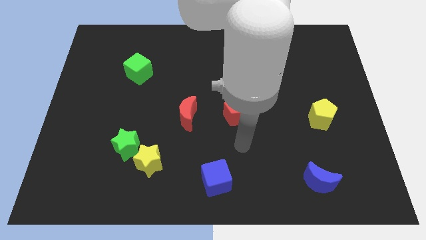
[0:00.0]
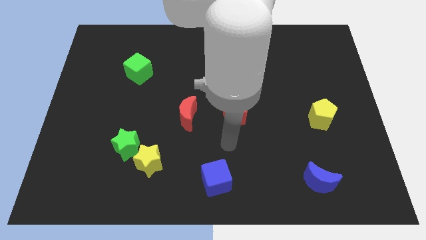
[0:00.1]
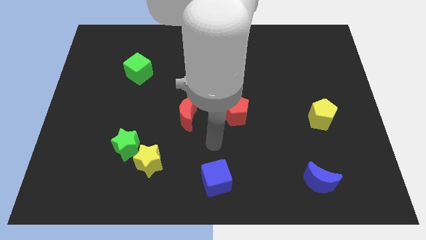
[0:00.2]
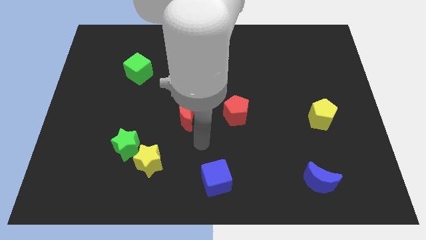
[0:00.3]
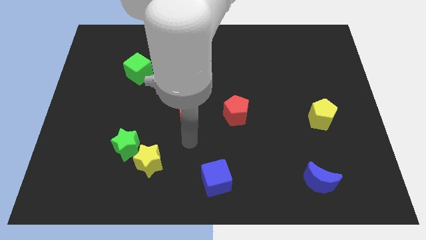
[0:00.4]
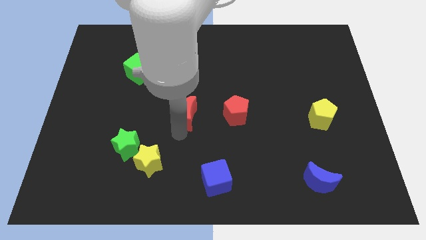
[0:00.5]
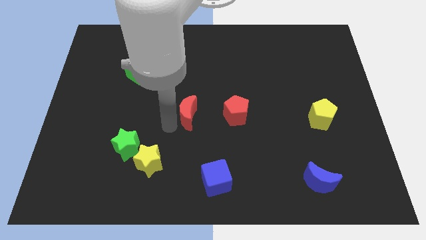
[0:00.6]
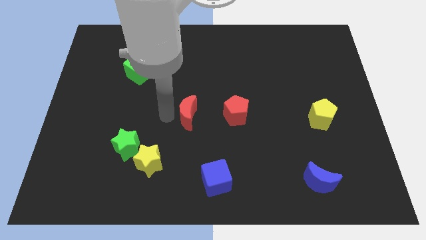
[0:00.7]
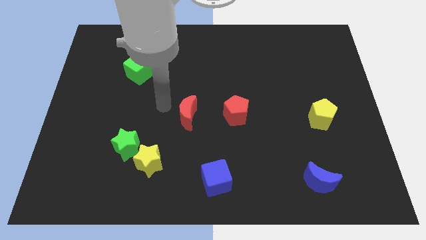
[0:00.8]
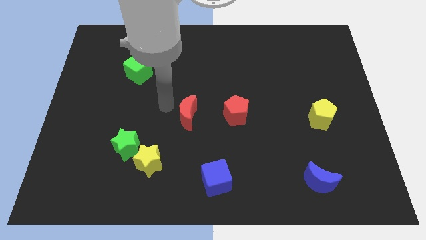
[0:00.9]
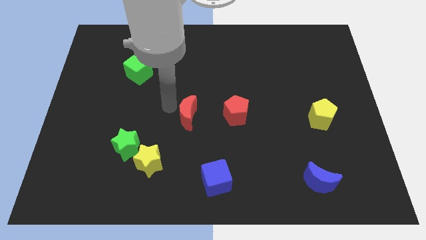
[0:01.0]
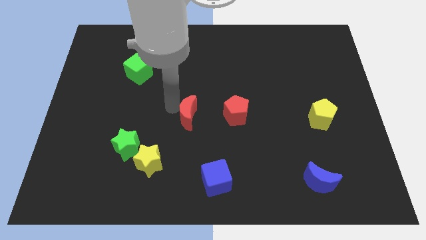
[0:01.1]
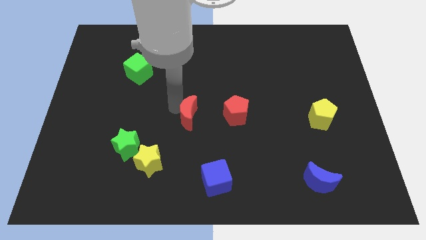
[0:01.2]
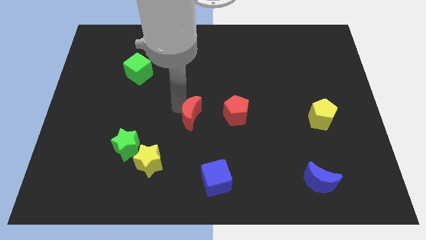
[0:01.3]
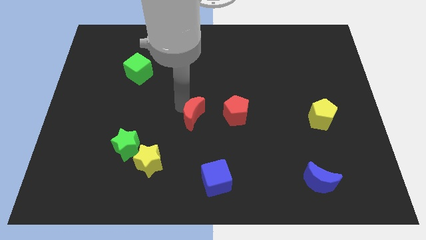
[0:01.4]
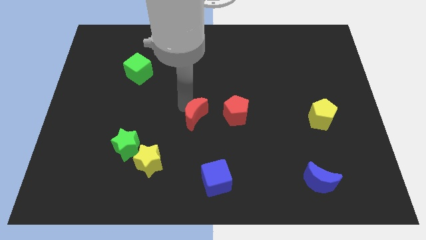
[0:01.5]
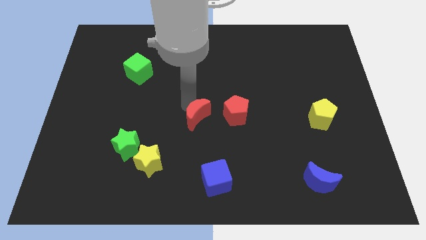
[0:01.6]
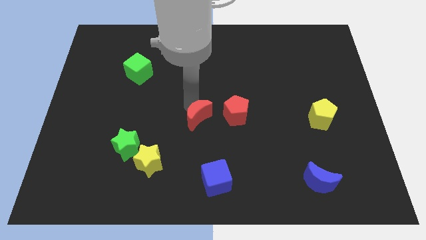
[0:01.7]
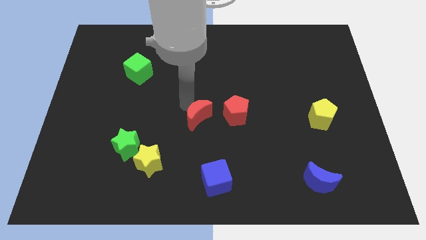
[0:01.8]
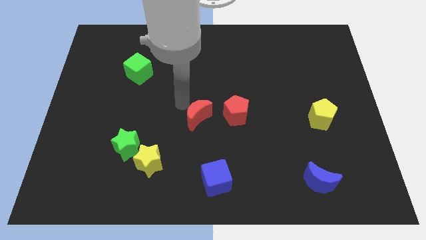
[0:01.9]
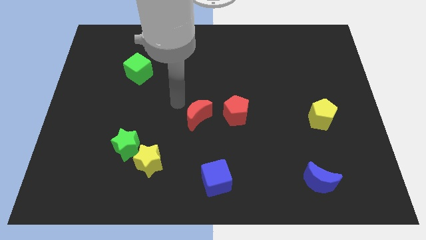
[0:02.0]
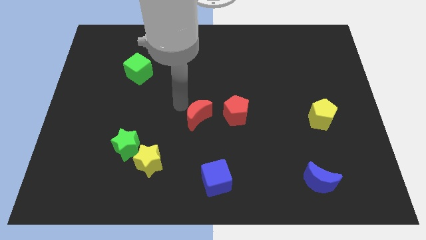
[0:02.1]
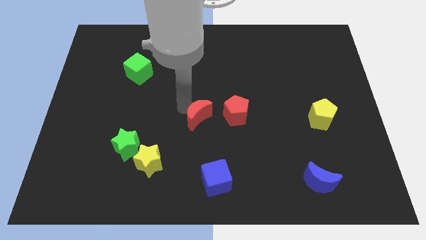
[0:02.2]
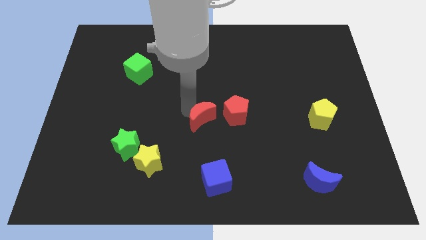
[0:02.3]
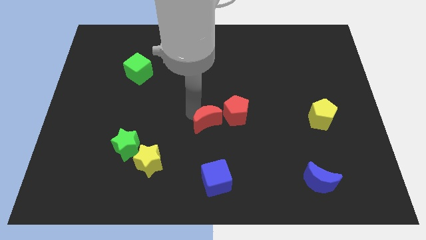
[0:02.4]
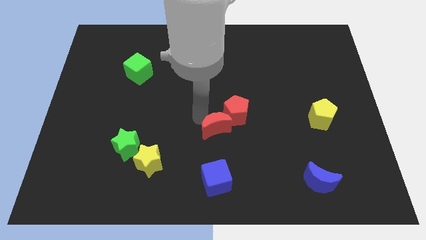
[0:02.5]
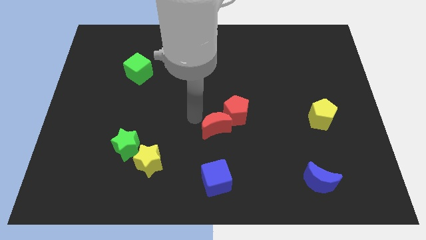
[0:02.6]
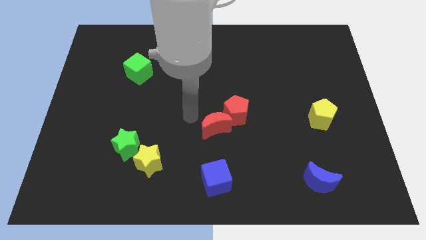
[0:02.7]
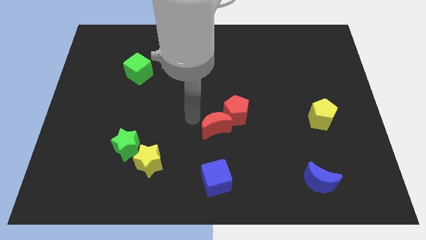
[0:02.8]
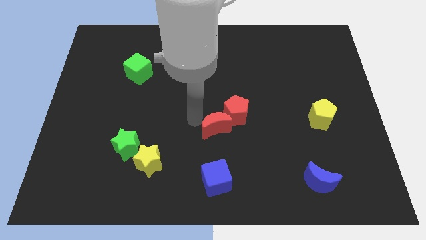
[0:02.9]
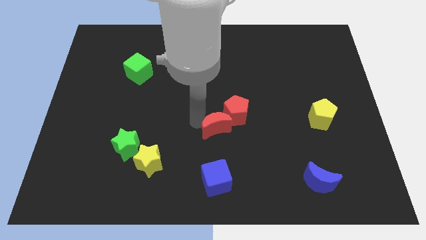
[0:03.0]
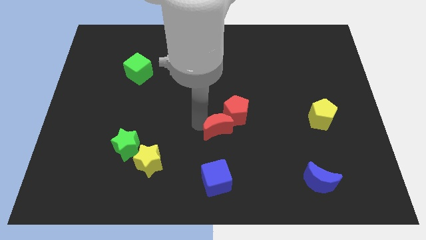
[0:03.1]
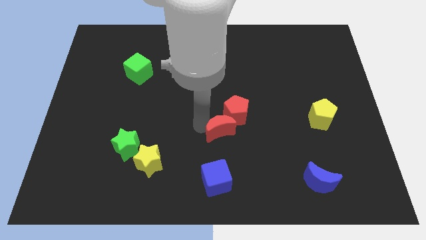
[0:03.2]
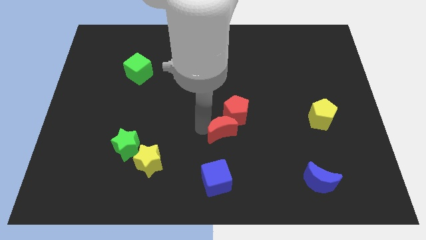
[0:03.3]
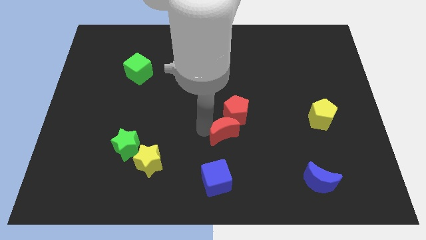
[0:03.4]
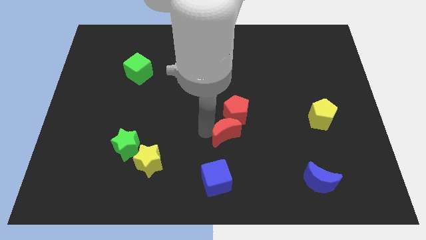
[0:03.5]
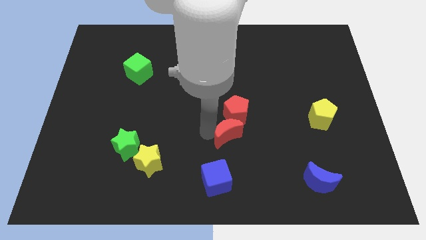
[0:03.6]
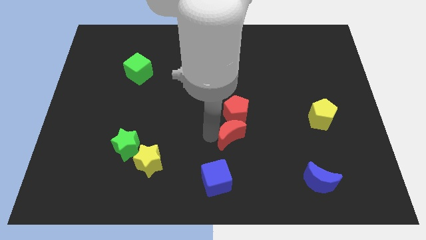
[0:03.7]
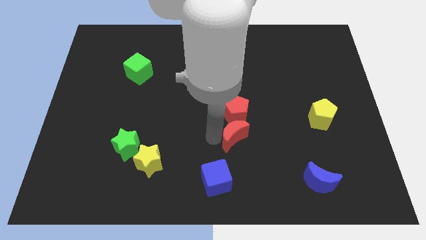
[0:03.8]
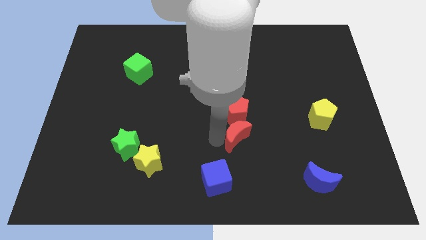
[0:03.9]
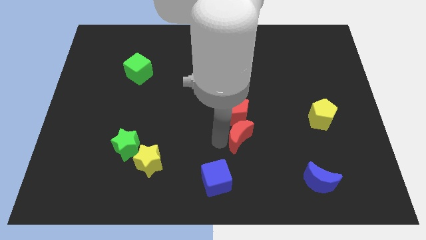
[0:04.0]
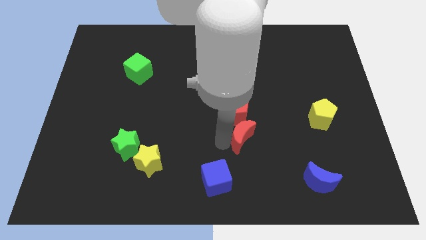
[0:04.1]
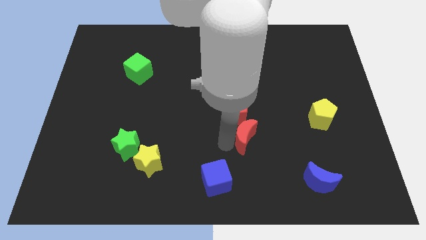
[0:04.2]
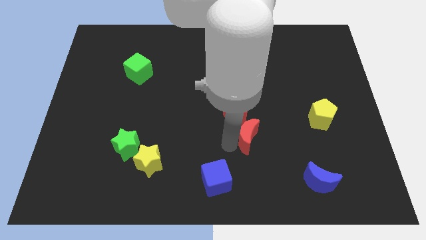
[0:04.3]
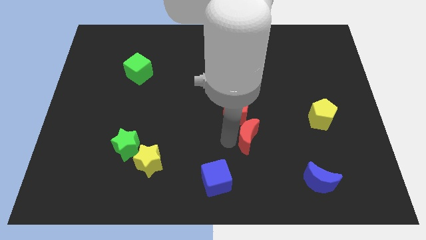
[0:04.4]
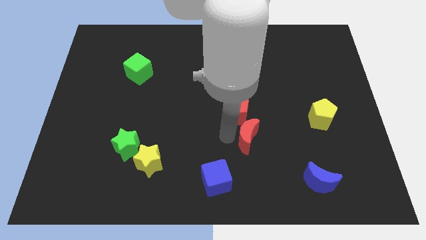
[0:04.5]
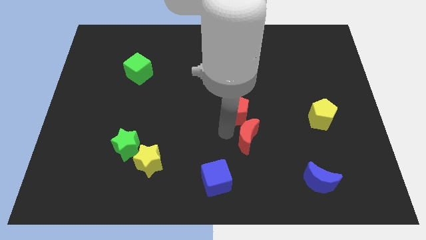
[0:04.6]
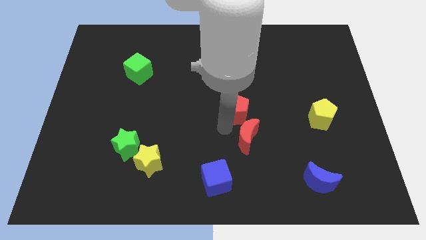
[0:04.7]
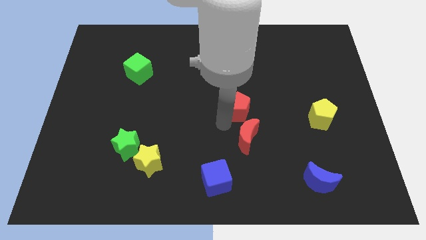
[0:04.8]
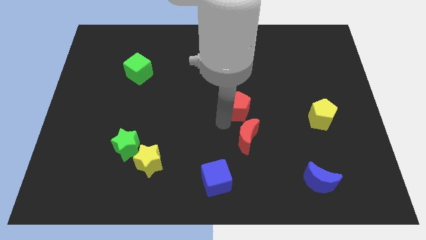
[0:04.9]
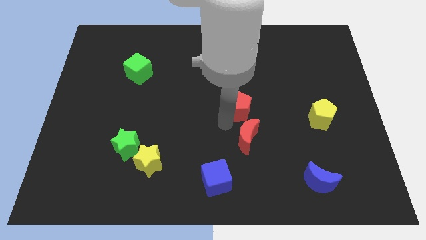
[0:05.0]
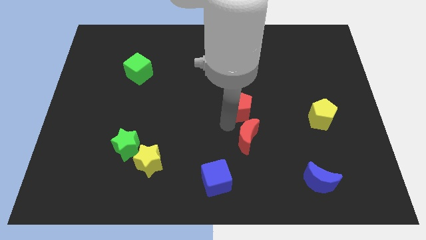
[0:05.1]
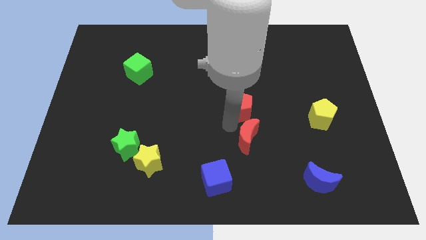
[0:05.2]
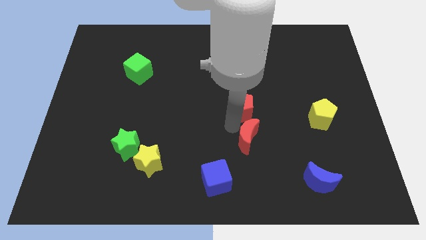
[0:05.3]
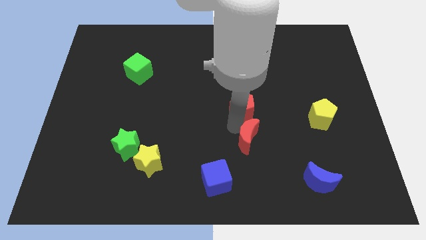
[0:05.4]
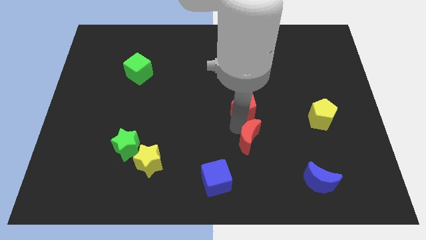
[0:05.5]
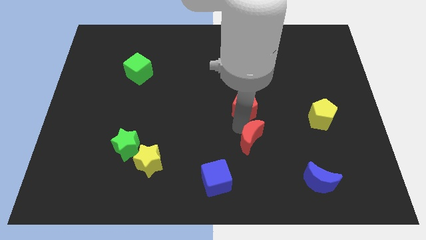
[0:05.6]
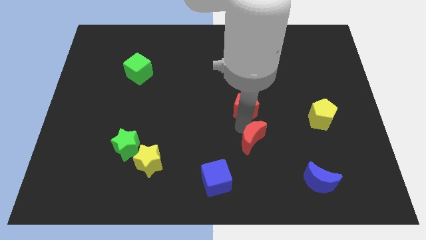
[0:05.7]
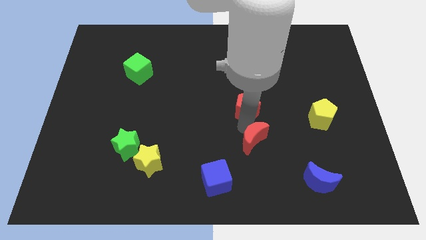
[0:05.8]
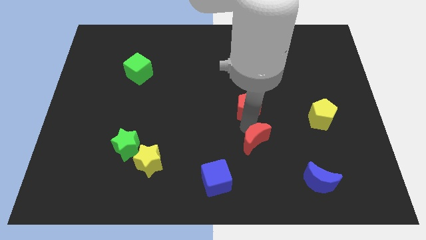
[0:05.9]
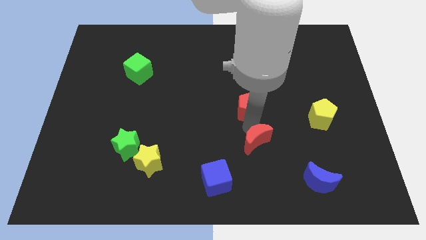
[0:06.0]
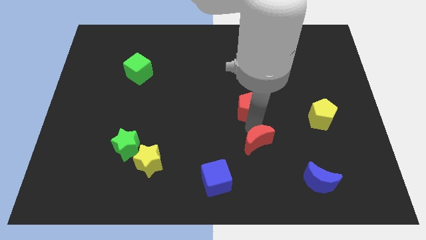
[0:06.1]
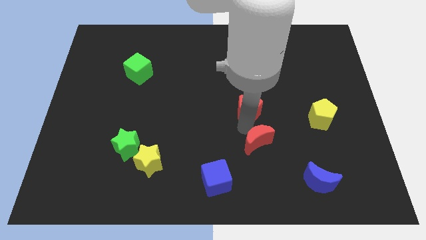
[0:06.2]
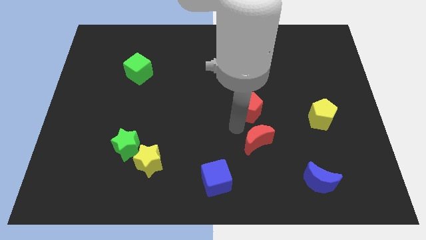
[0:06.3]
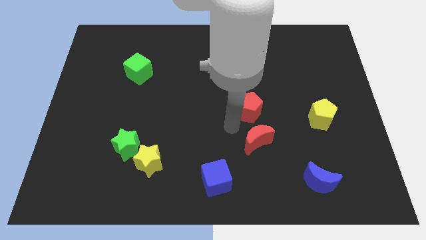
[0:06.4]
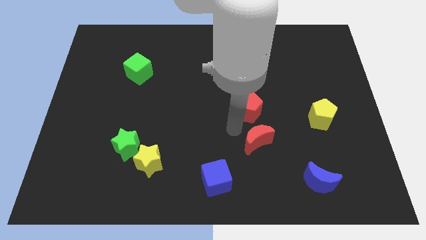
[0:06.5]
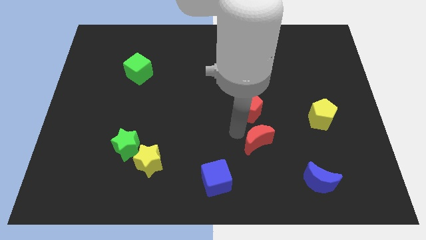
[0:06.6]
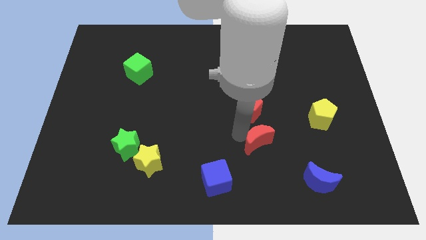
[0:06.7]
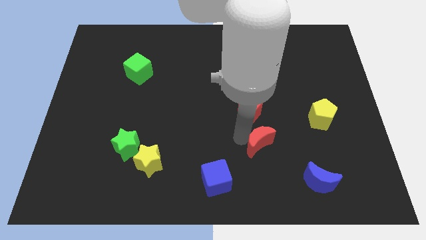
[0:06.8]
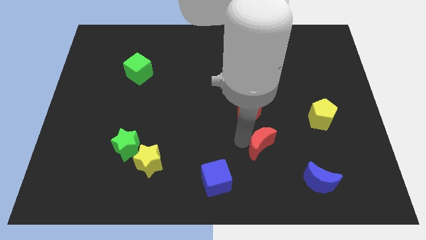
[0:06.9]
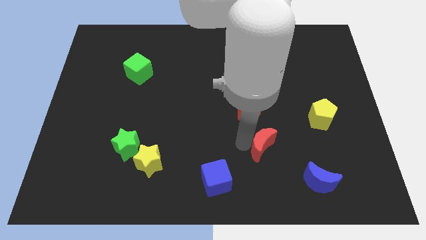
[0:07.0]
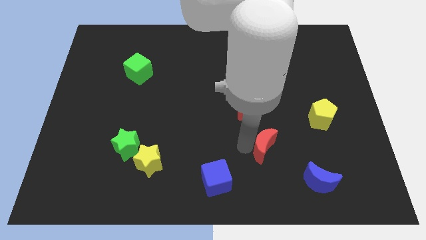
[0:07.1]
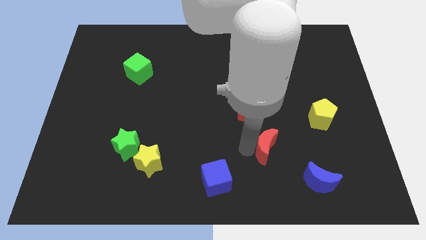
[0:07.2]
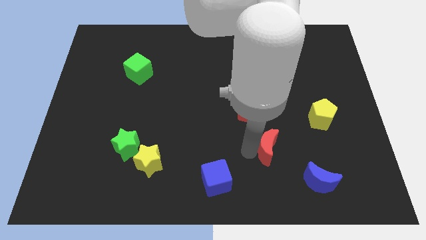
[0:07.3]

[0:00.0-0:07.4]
put the red moon to the top left of the blue moon
